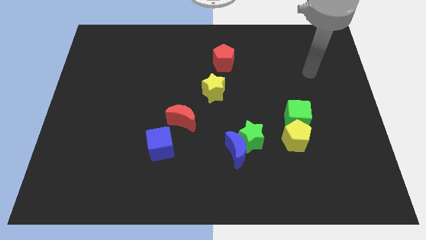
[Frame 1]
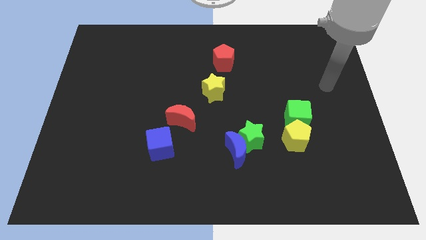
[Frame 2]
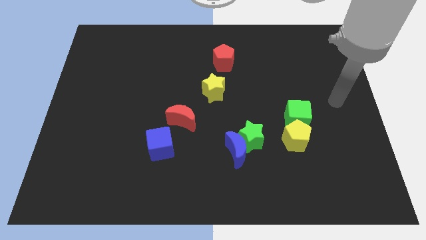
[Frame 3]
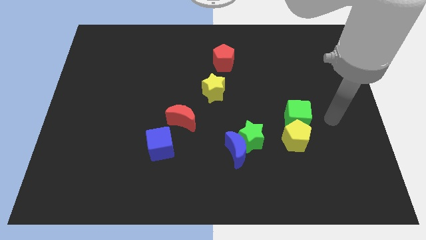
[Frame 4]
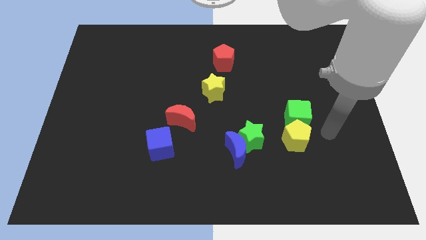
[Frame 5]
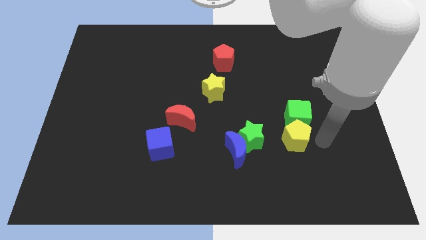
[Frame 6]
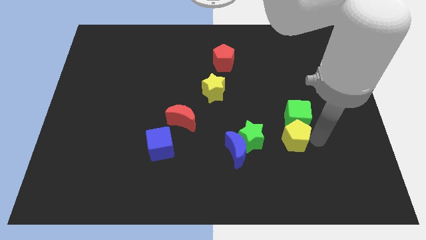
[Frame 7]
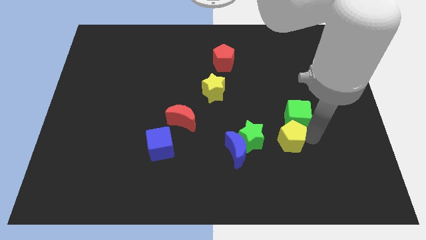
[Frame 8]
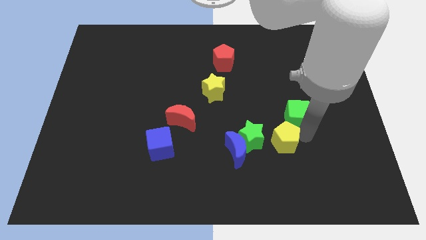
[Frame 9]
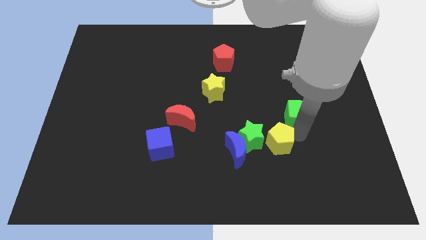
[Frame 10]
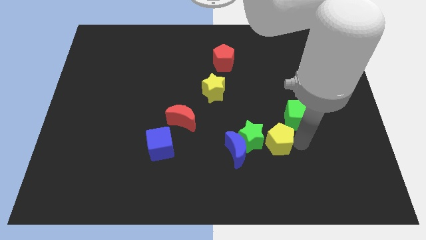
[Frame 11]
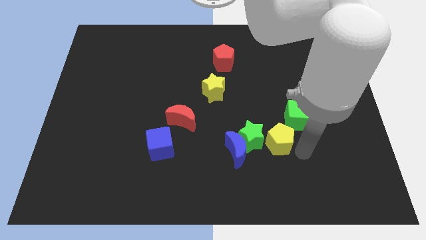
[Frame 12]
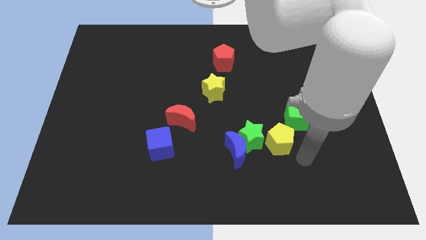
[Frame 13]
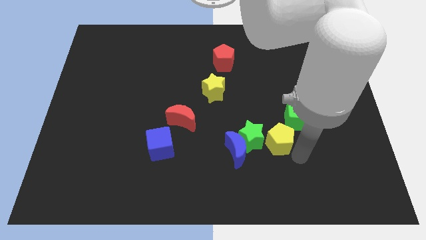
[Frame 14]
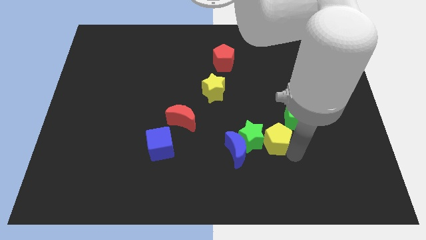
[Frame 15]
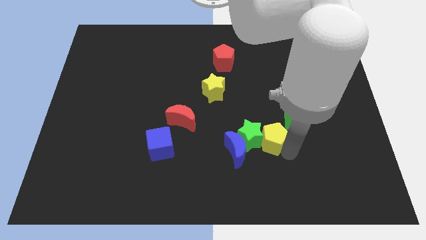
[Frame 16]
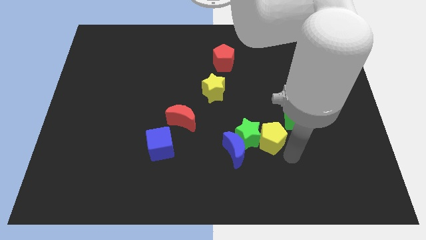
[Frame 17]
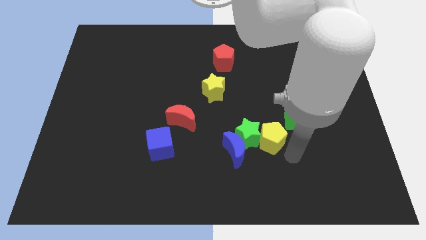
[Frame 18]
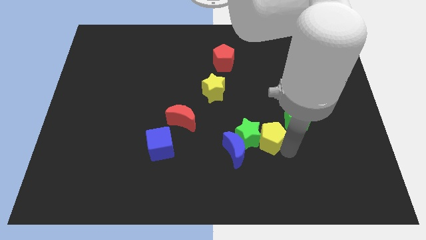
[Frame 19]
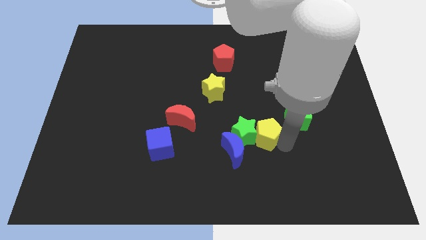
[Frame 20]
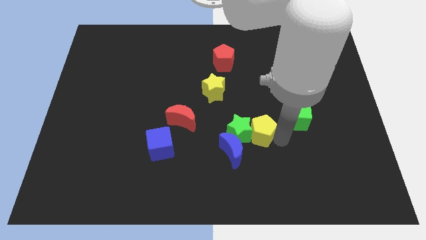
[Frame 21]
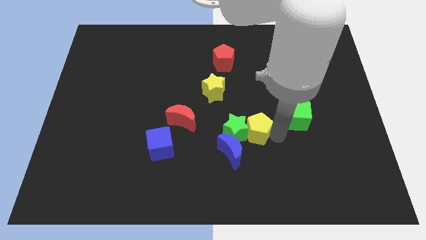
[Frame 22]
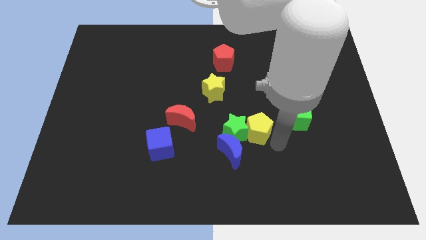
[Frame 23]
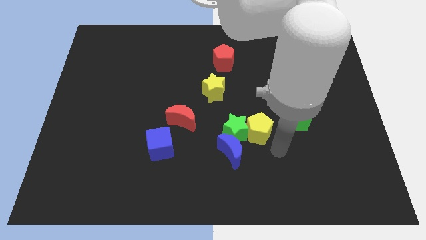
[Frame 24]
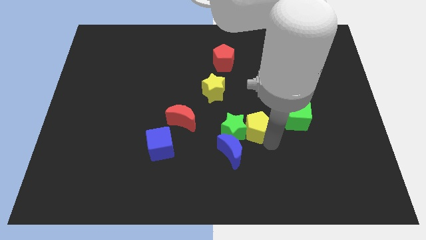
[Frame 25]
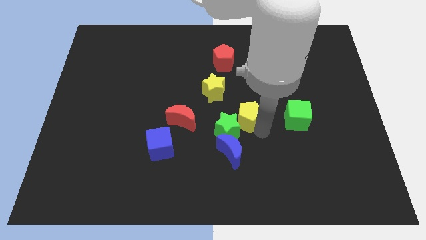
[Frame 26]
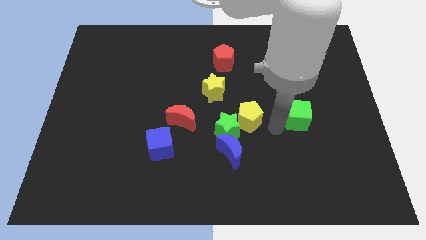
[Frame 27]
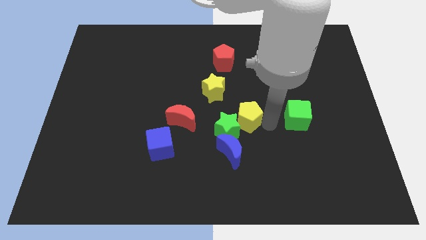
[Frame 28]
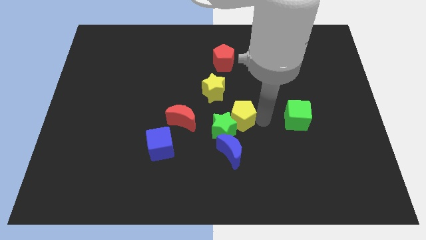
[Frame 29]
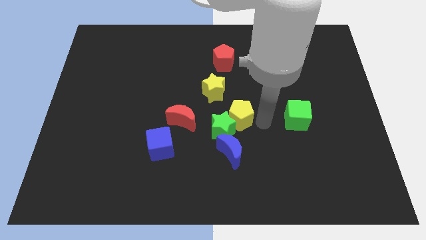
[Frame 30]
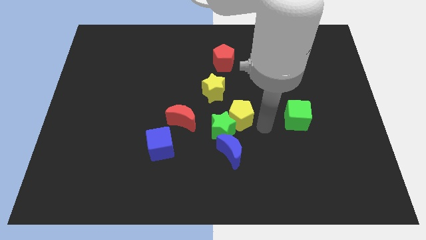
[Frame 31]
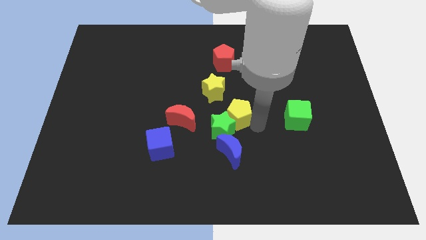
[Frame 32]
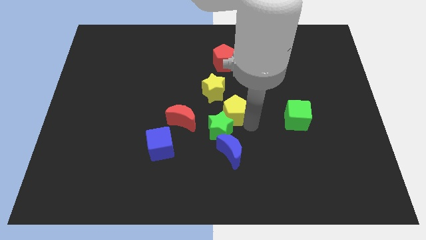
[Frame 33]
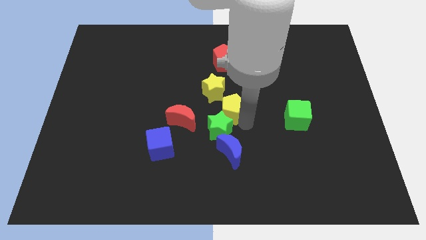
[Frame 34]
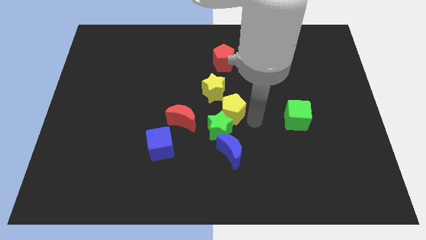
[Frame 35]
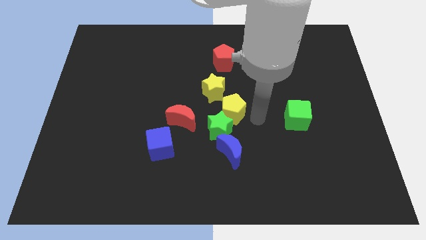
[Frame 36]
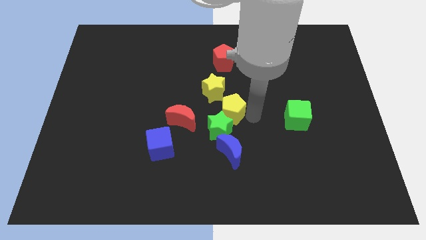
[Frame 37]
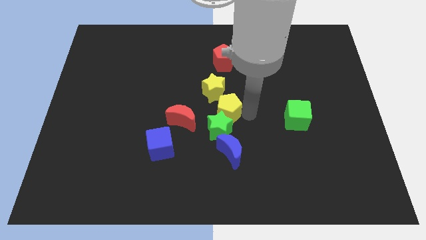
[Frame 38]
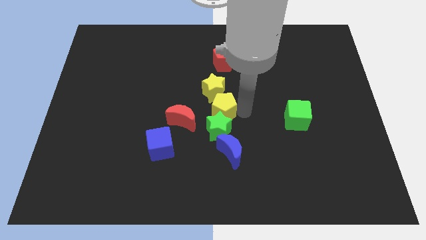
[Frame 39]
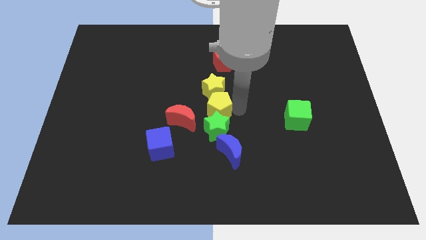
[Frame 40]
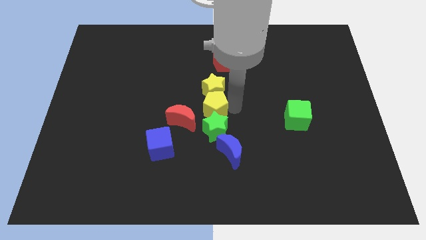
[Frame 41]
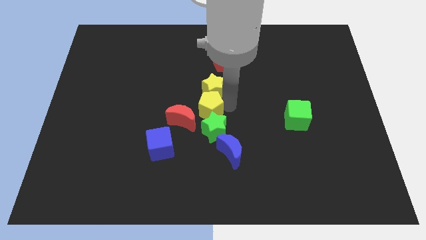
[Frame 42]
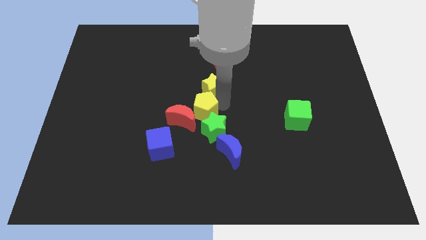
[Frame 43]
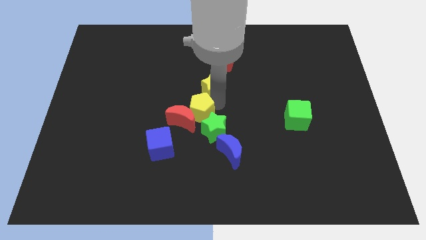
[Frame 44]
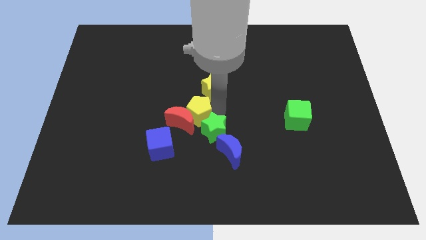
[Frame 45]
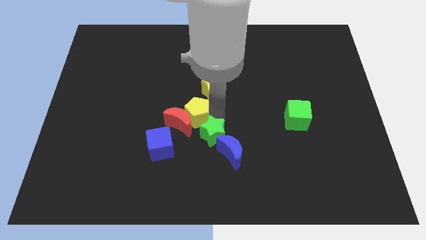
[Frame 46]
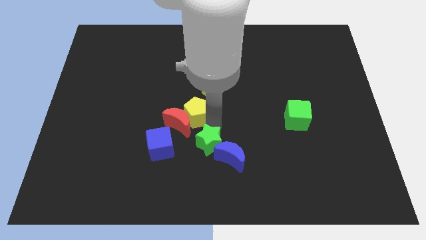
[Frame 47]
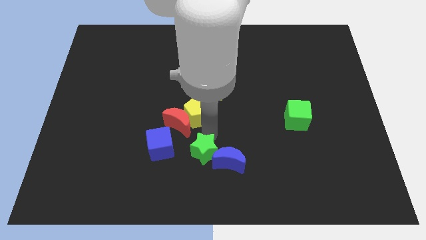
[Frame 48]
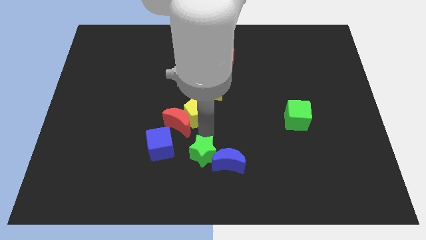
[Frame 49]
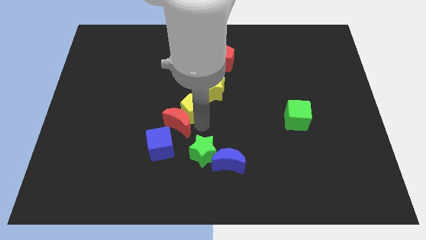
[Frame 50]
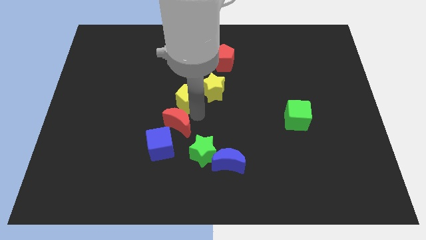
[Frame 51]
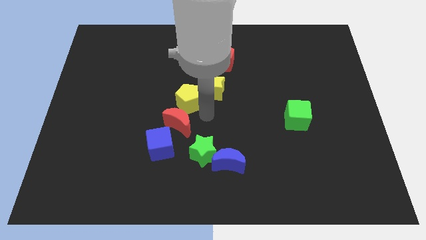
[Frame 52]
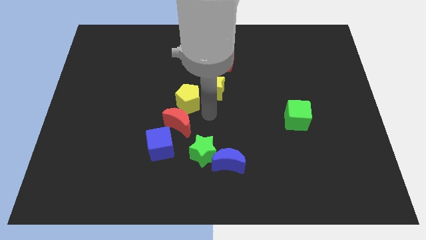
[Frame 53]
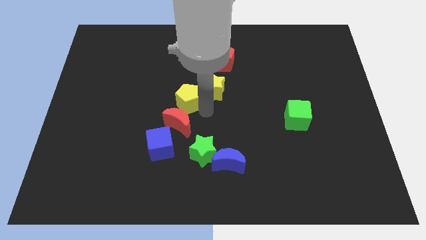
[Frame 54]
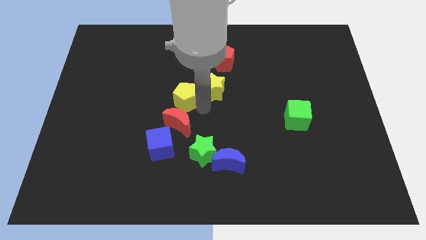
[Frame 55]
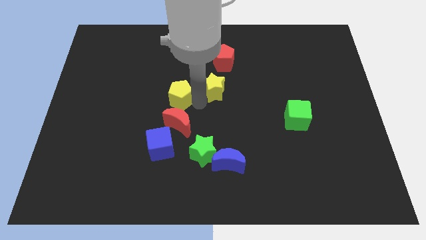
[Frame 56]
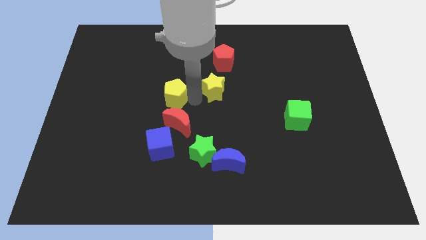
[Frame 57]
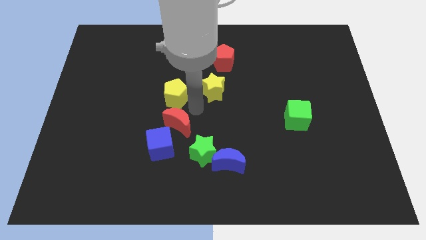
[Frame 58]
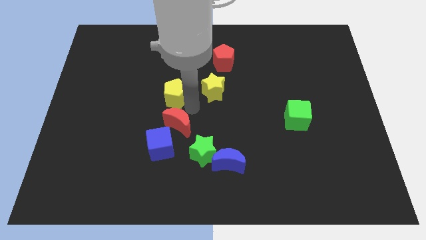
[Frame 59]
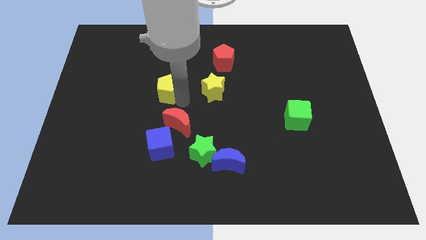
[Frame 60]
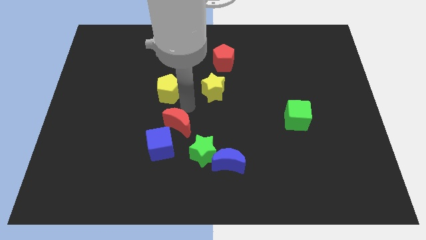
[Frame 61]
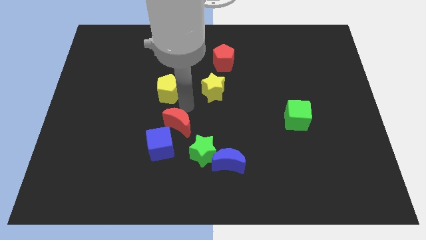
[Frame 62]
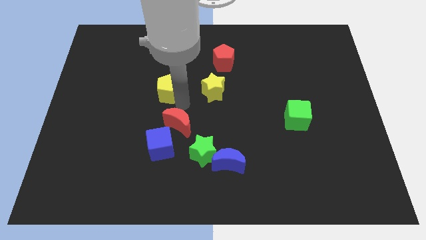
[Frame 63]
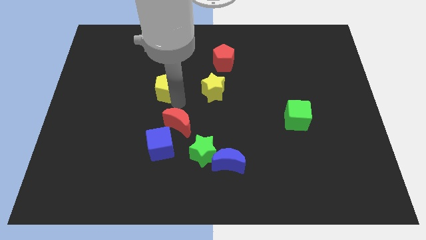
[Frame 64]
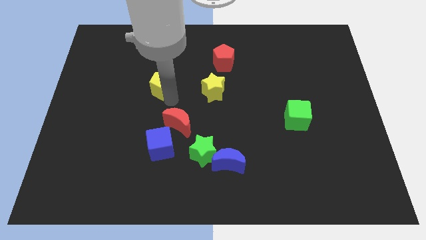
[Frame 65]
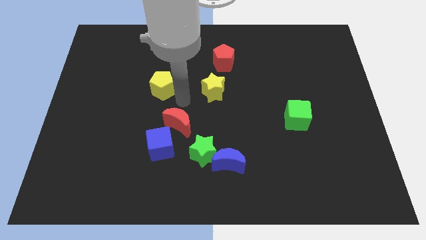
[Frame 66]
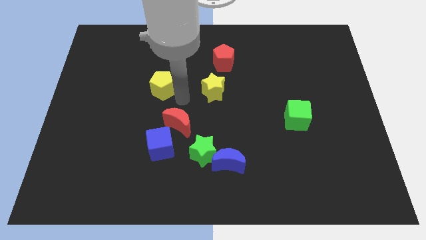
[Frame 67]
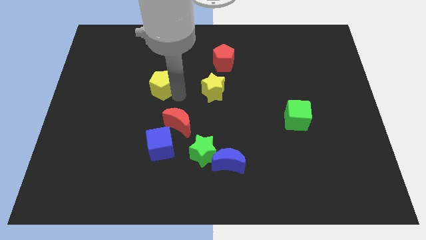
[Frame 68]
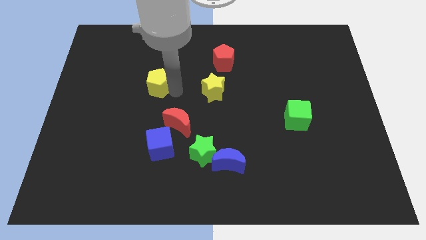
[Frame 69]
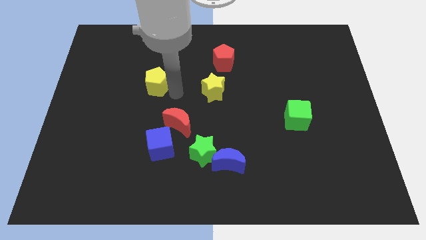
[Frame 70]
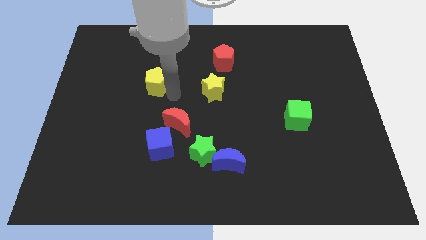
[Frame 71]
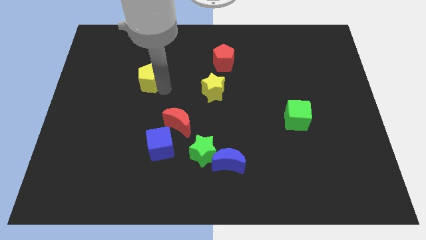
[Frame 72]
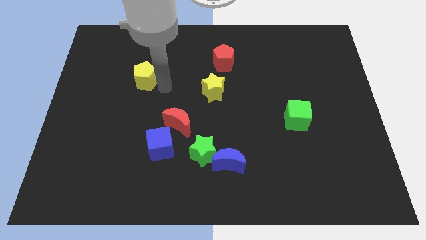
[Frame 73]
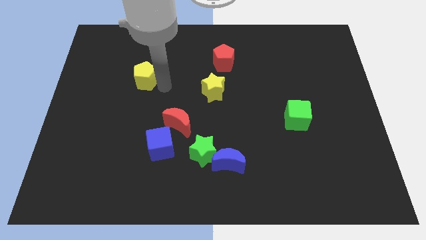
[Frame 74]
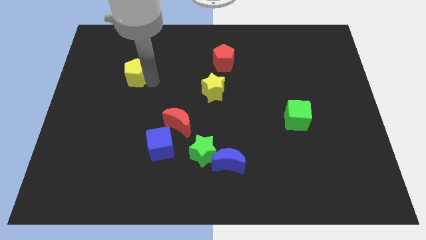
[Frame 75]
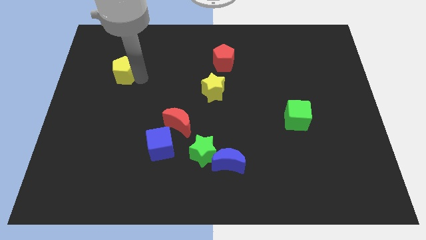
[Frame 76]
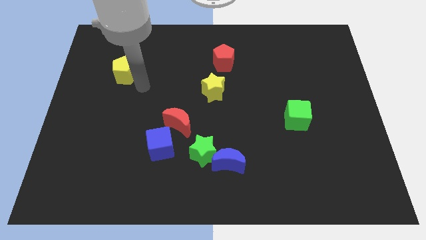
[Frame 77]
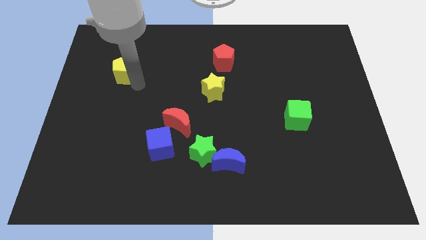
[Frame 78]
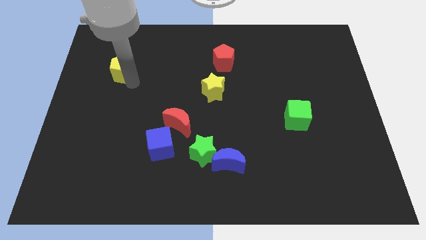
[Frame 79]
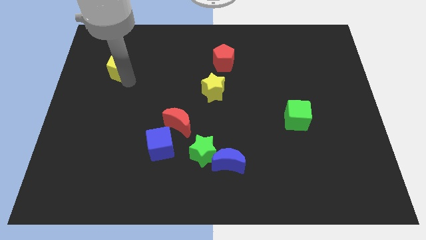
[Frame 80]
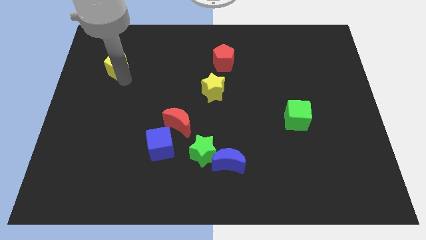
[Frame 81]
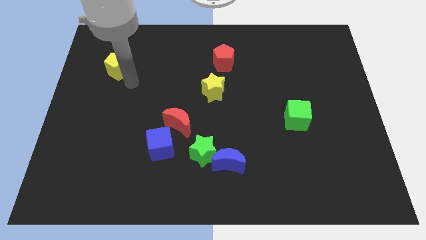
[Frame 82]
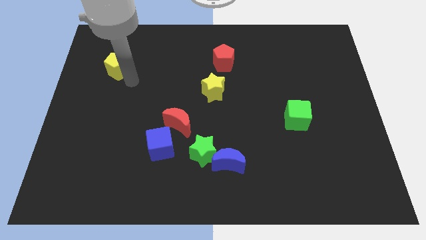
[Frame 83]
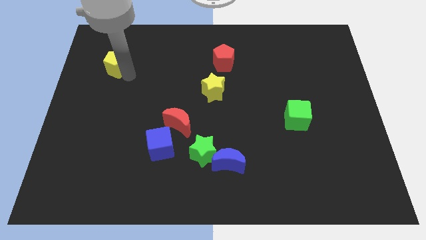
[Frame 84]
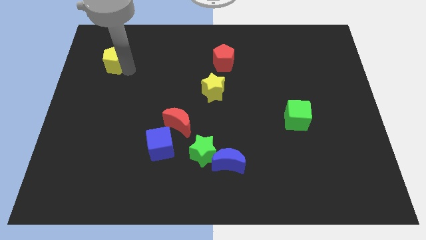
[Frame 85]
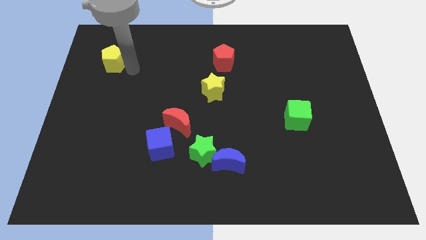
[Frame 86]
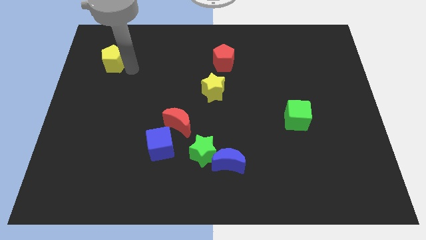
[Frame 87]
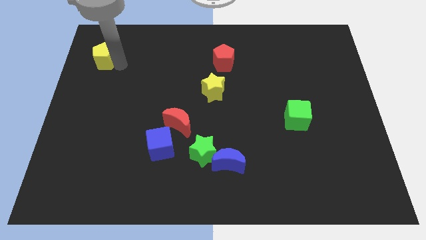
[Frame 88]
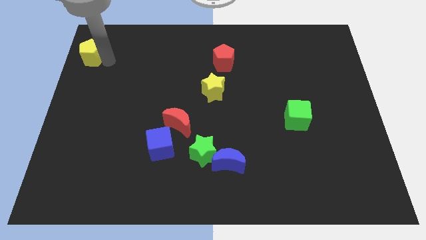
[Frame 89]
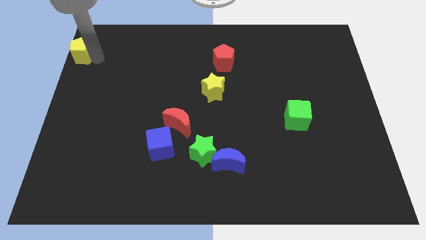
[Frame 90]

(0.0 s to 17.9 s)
slide the yellow pentagon to the top left corner
